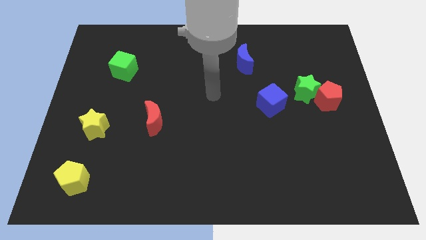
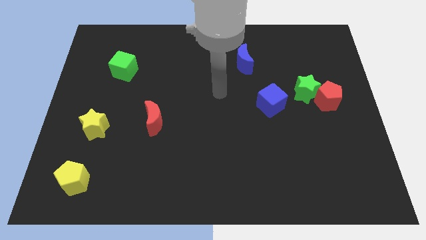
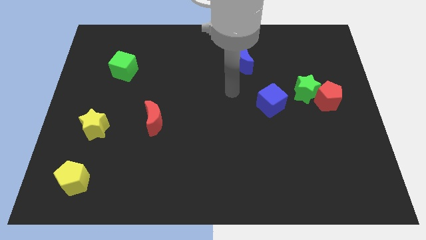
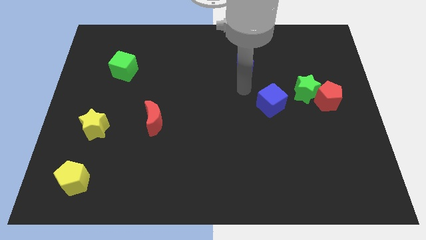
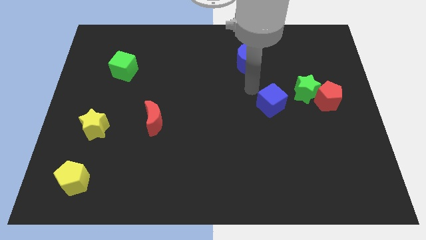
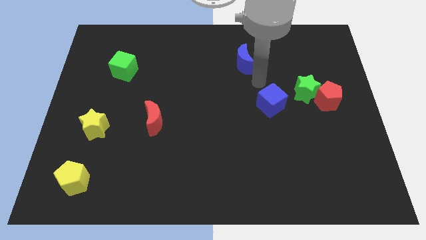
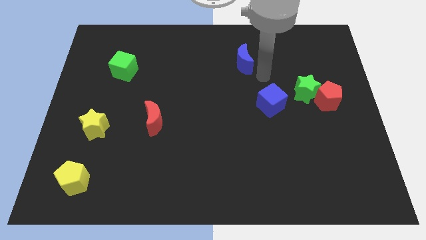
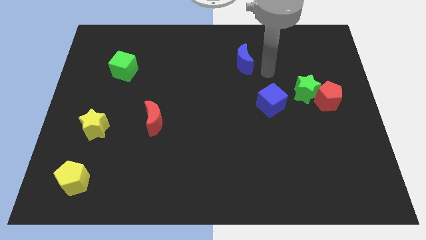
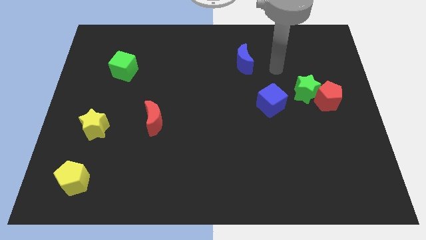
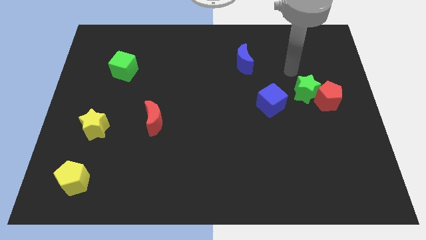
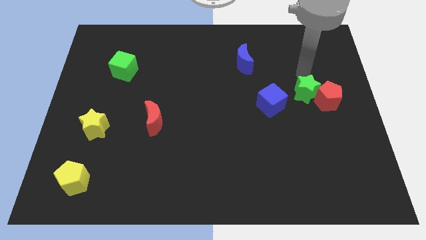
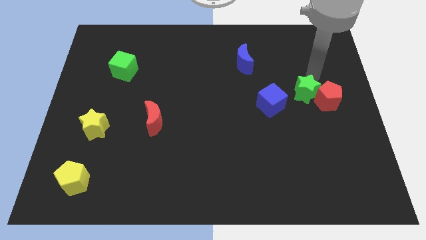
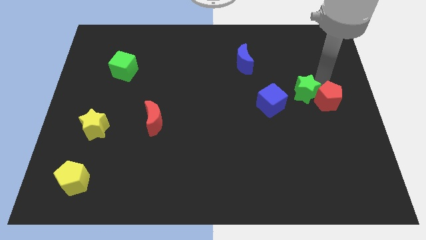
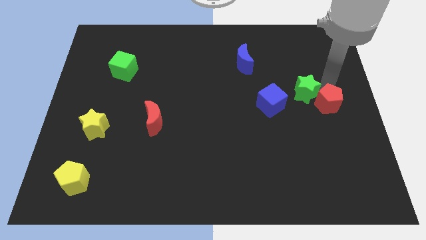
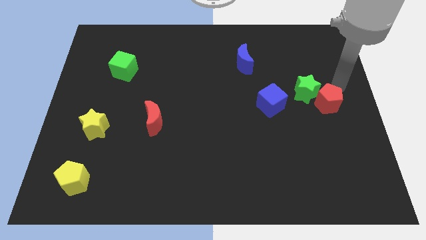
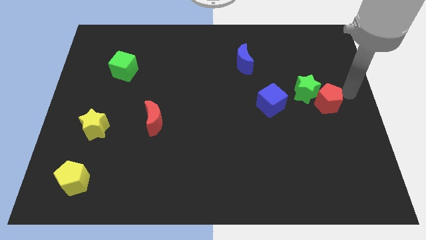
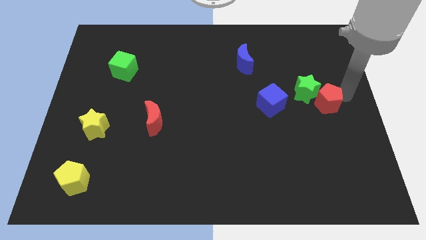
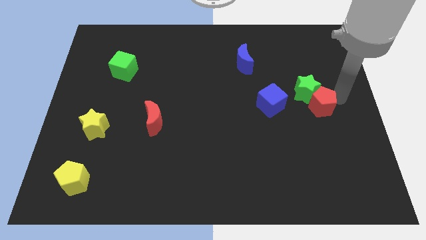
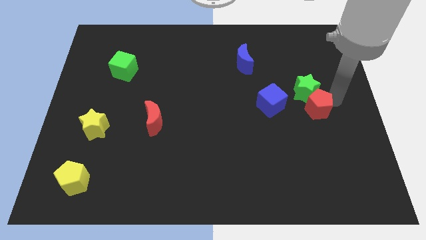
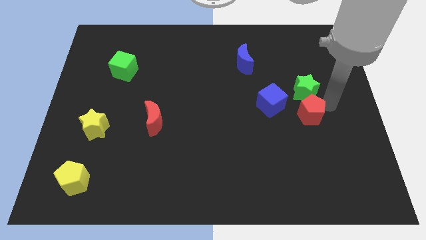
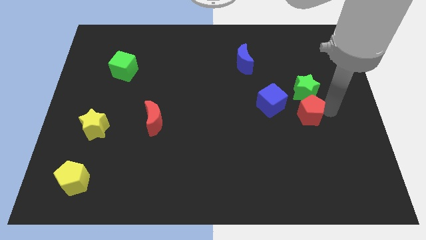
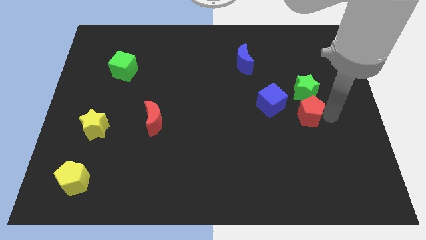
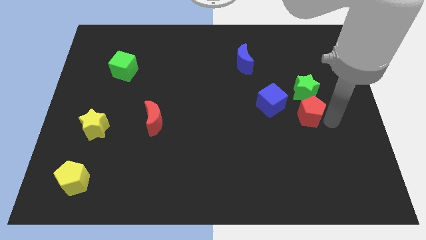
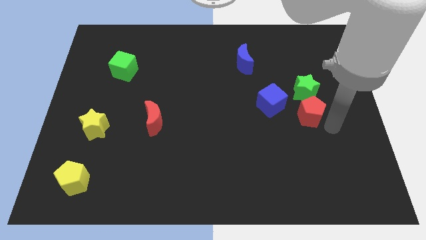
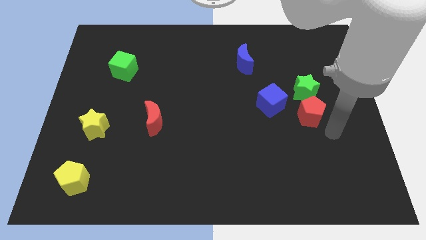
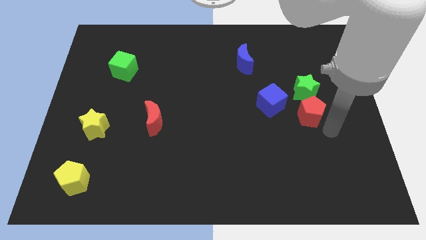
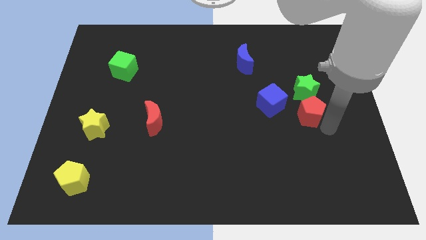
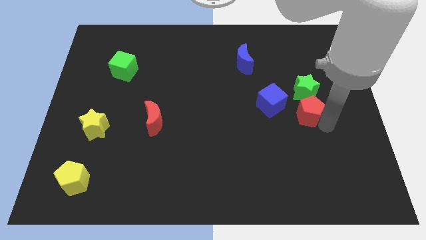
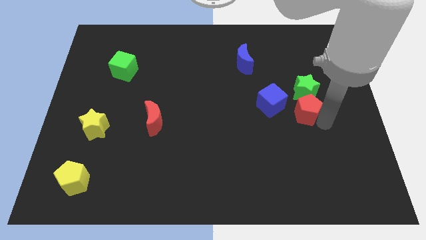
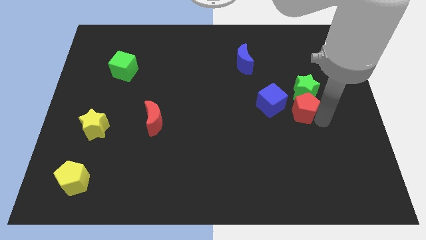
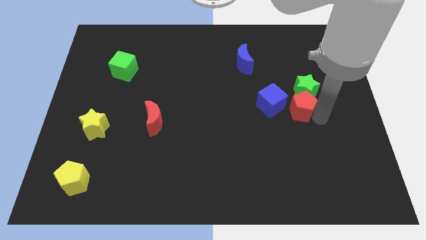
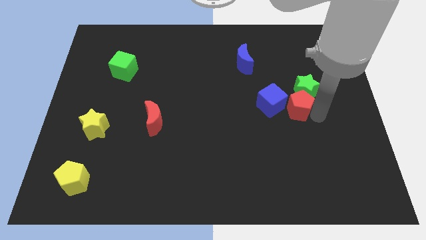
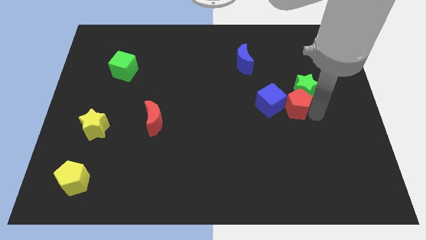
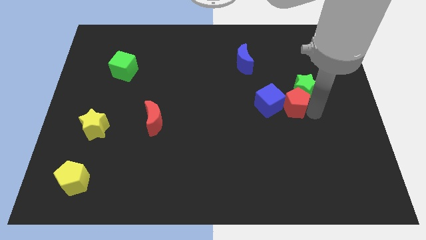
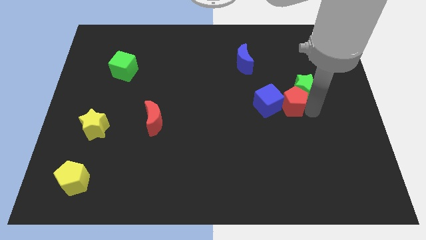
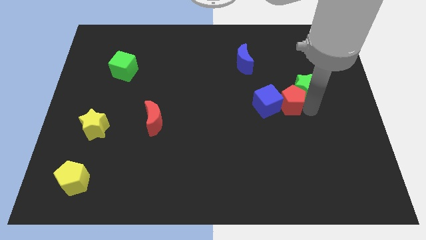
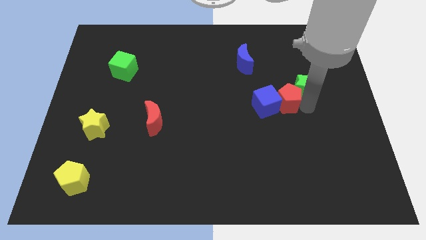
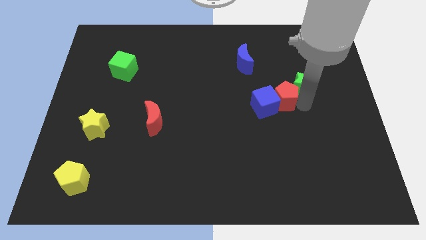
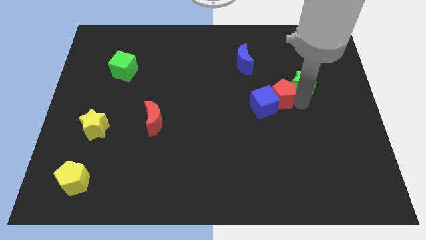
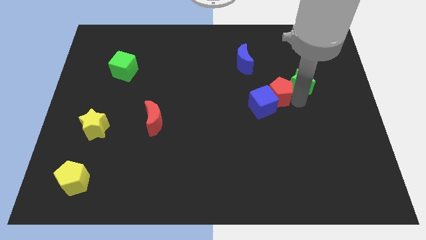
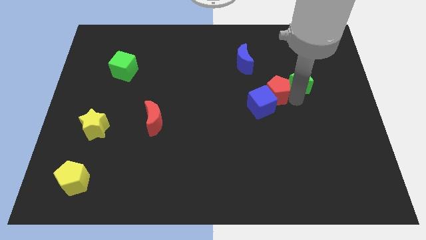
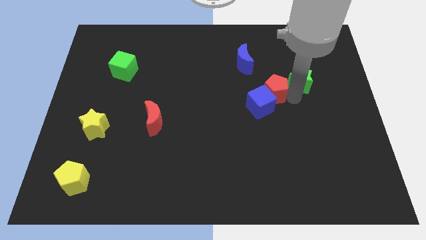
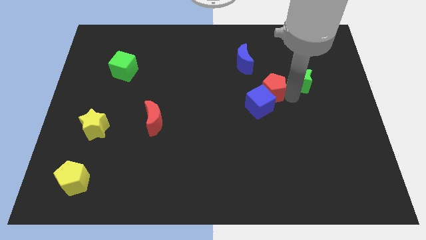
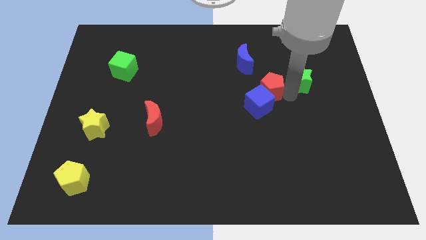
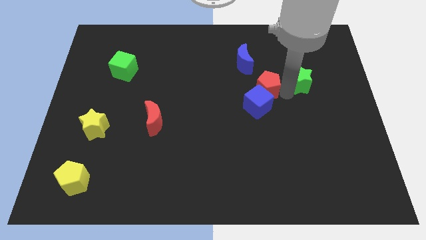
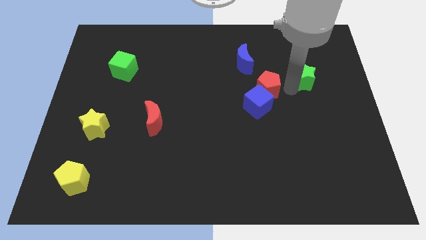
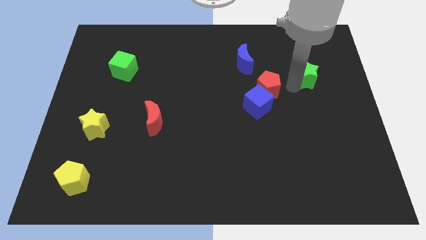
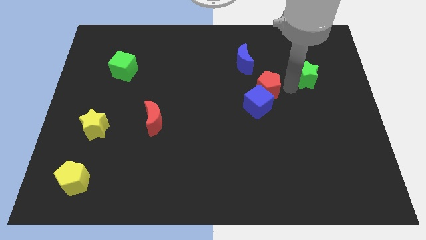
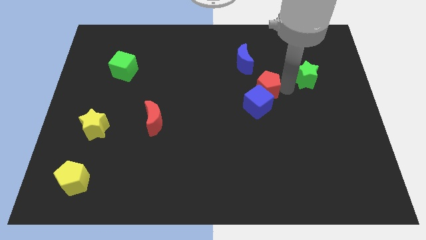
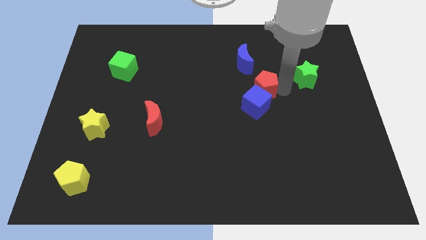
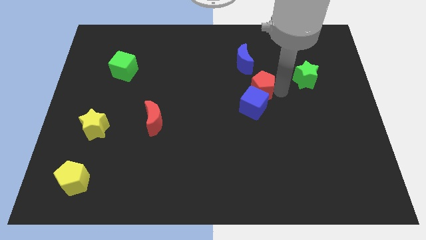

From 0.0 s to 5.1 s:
slide the red pentagon to the middle

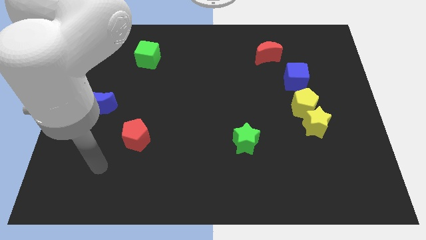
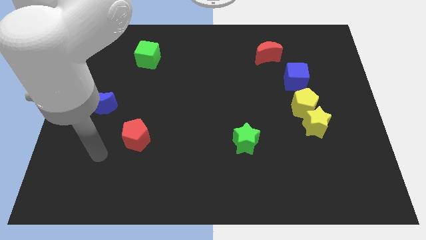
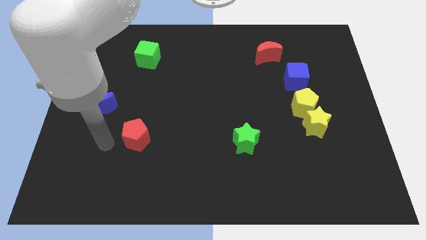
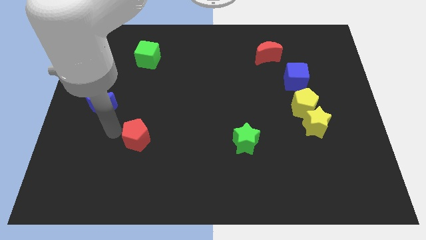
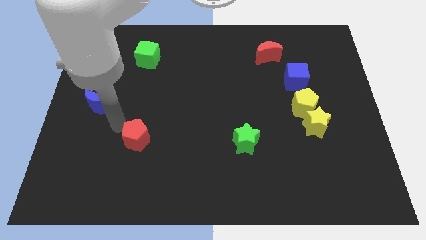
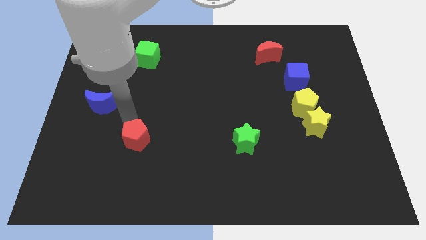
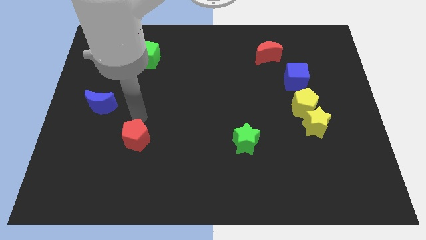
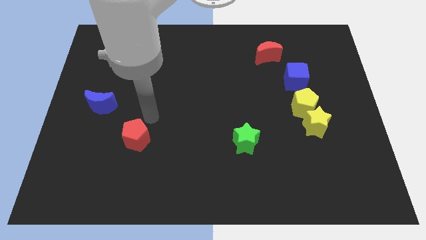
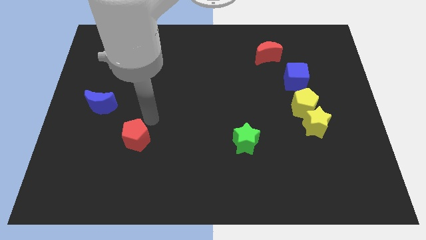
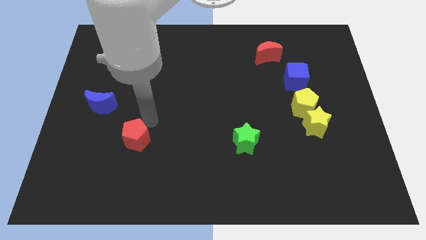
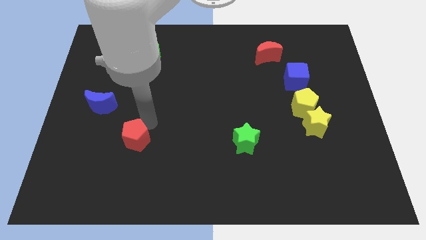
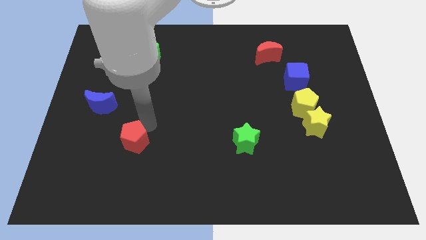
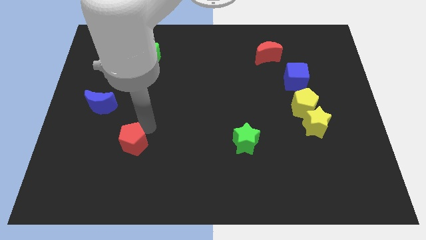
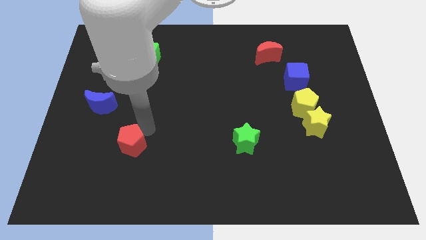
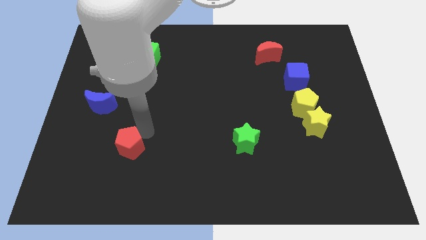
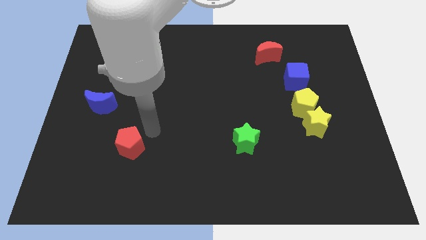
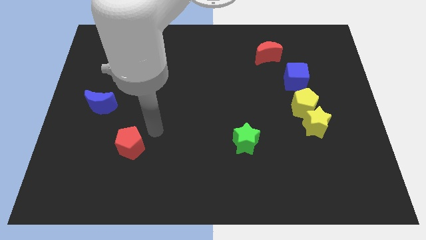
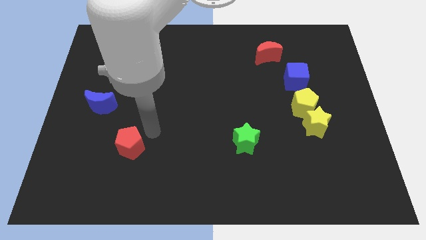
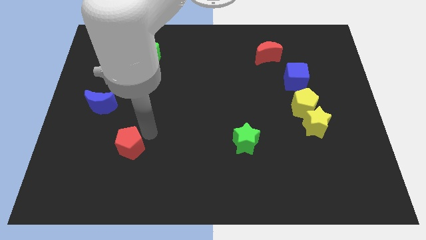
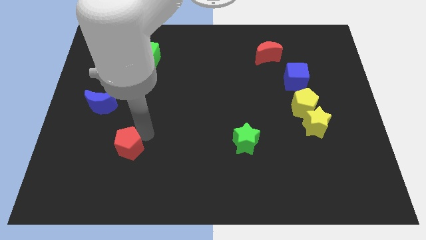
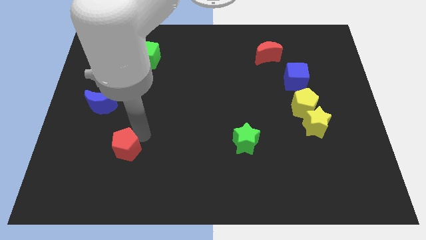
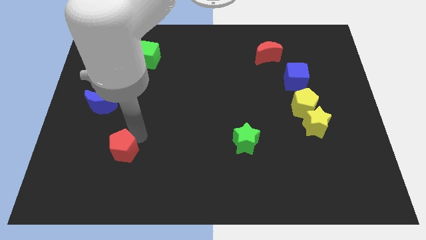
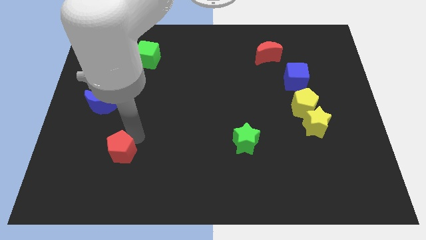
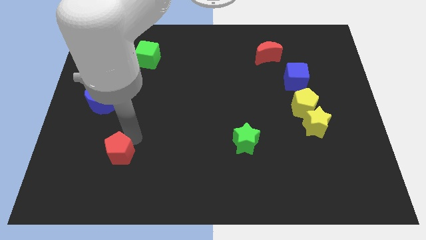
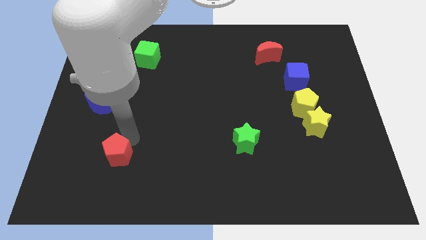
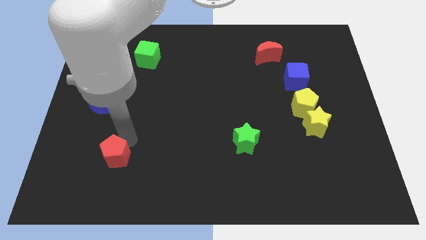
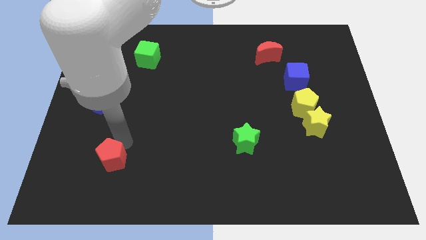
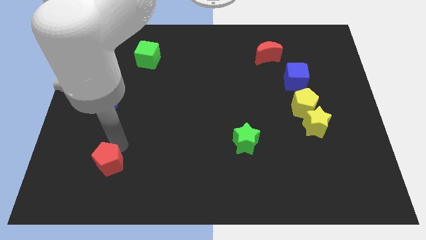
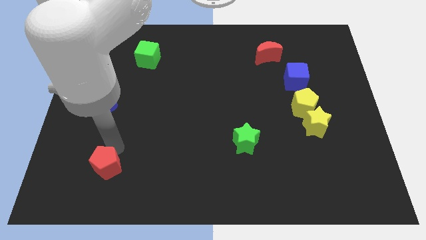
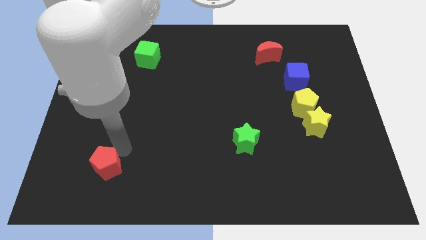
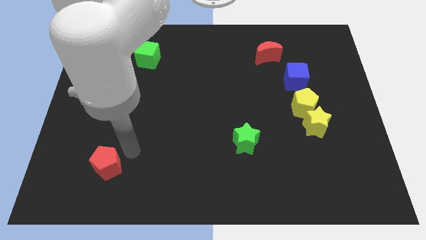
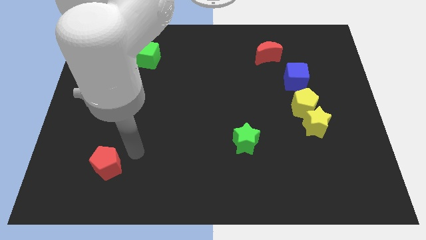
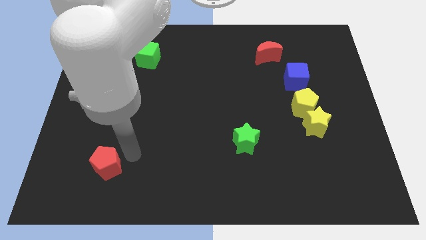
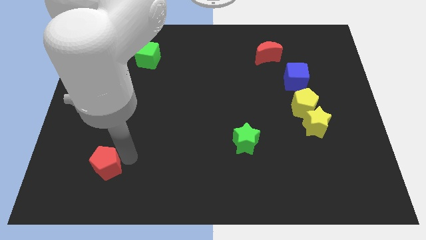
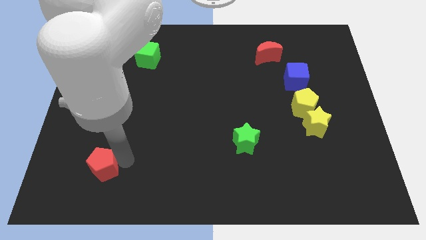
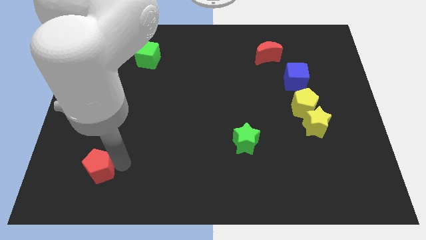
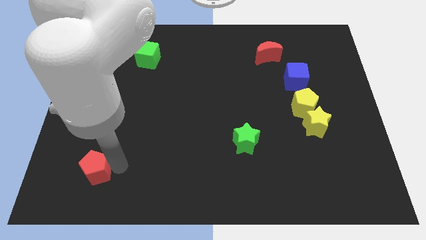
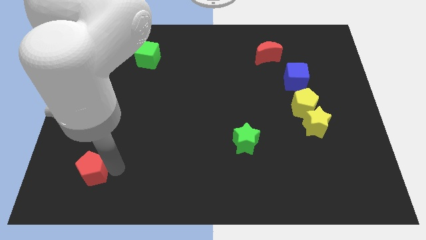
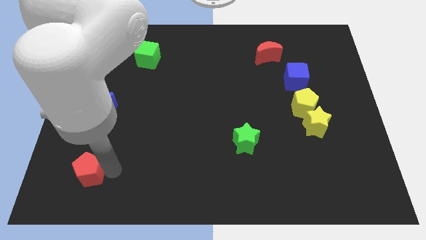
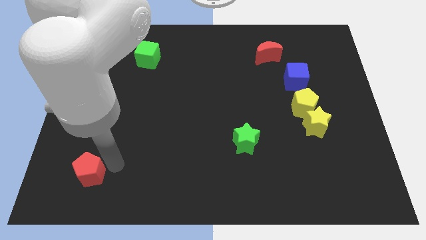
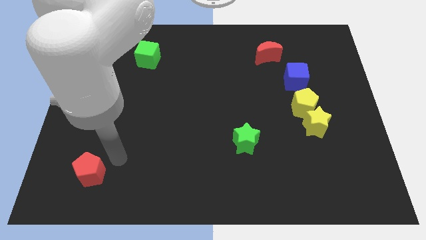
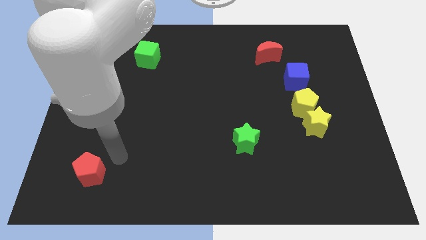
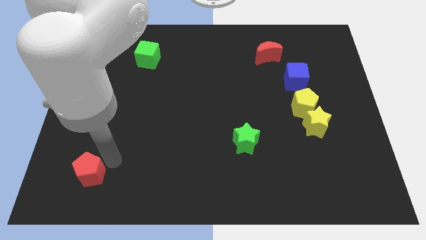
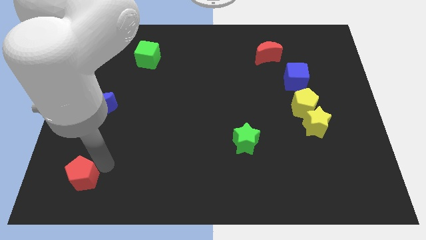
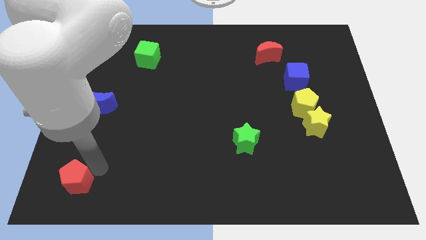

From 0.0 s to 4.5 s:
move the red pentagon to the bottom left corner
